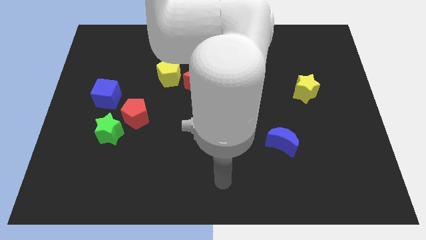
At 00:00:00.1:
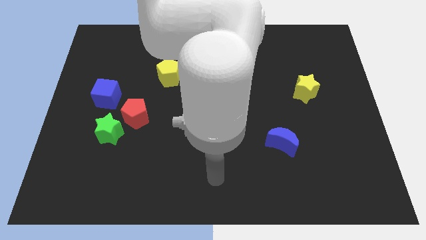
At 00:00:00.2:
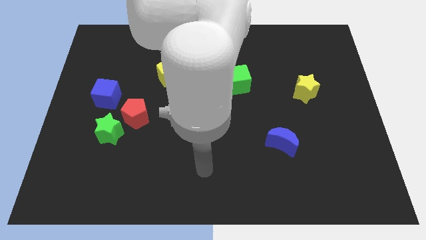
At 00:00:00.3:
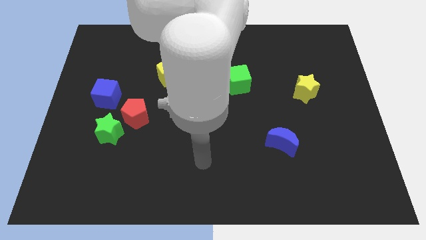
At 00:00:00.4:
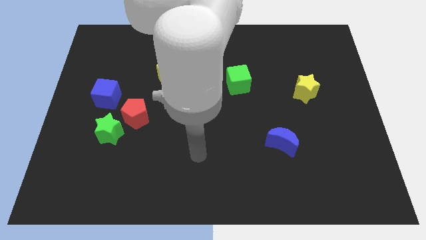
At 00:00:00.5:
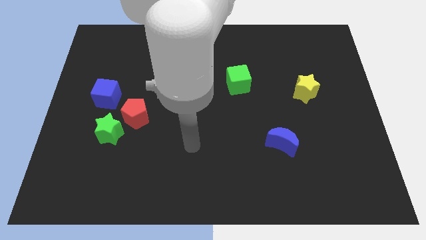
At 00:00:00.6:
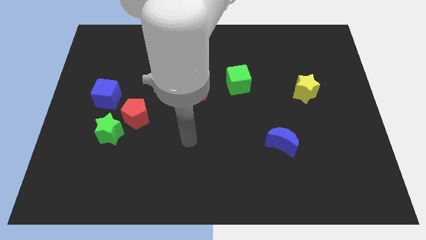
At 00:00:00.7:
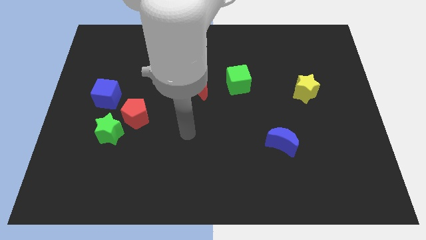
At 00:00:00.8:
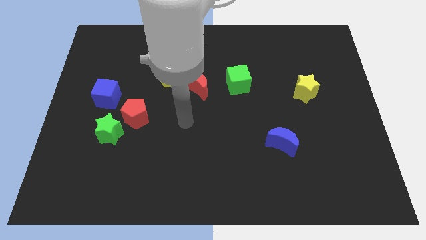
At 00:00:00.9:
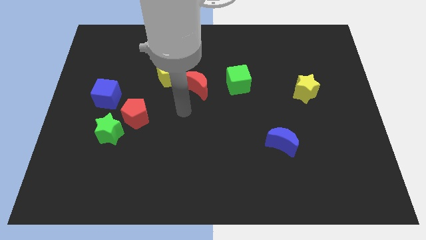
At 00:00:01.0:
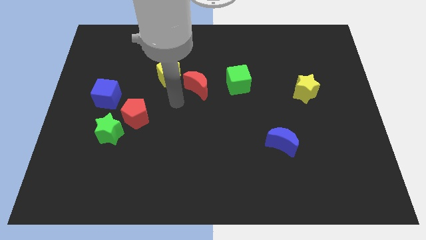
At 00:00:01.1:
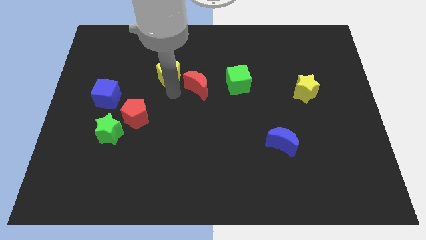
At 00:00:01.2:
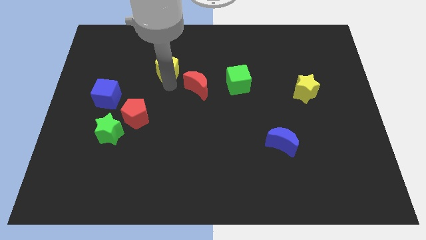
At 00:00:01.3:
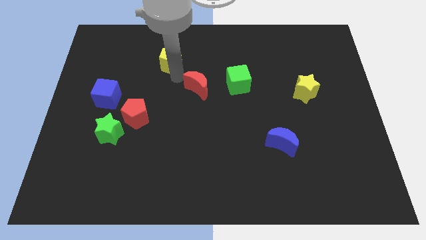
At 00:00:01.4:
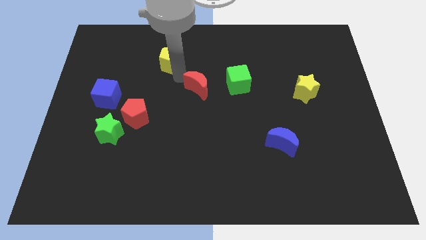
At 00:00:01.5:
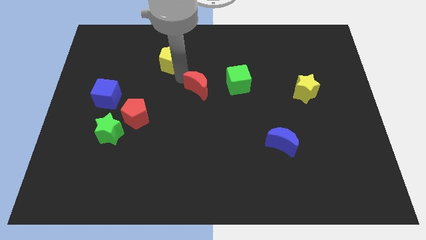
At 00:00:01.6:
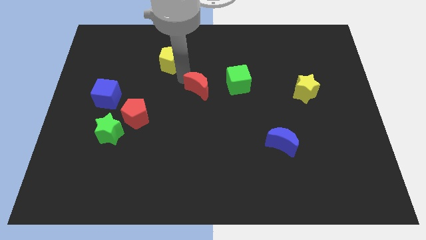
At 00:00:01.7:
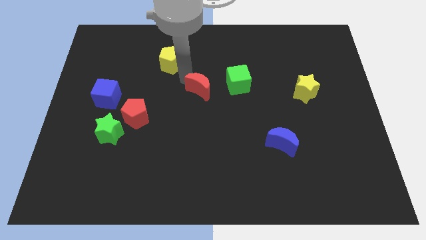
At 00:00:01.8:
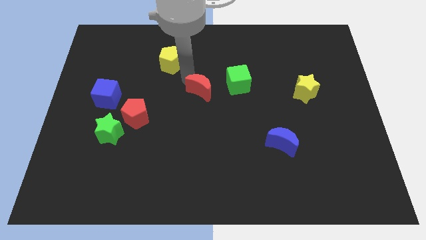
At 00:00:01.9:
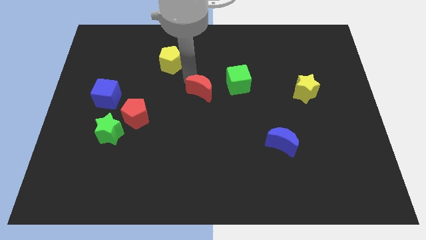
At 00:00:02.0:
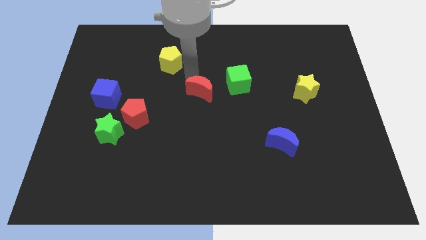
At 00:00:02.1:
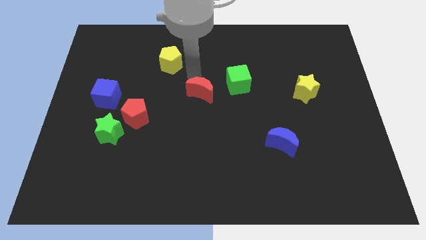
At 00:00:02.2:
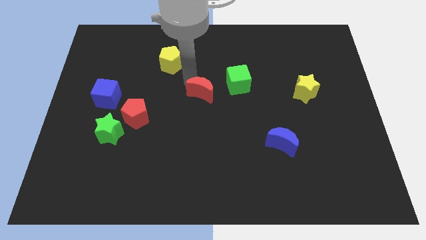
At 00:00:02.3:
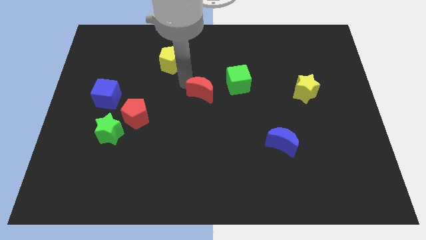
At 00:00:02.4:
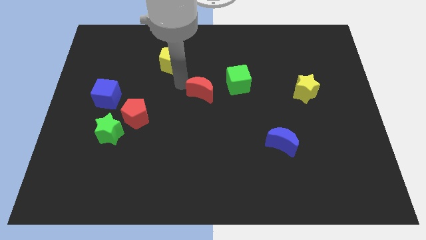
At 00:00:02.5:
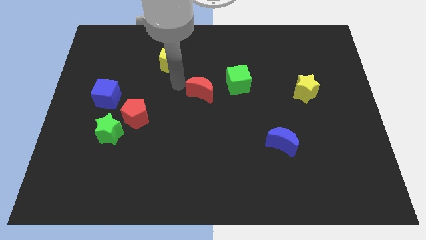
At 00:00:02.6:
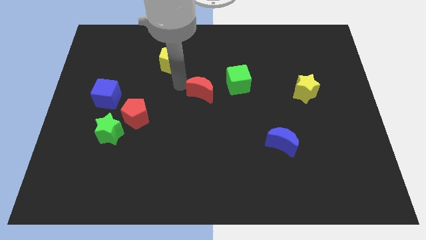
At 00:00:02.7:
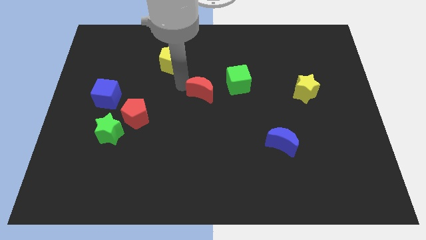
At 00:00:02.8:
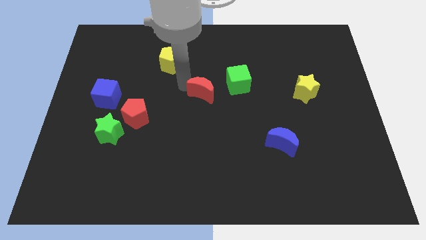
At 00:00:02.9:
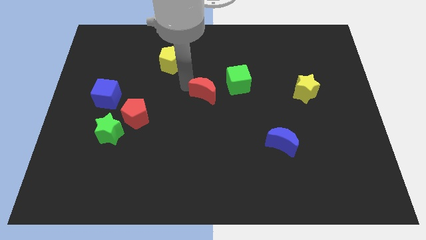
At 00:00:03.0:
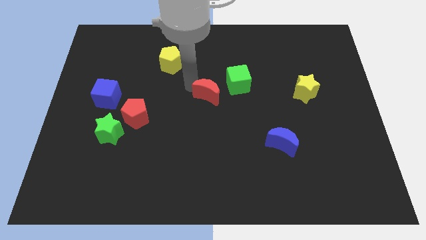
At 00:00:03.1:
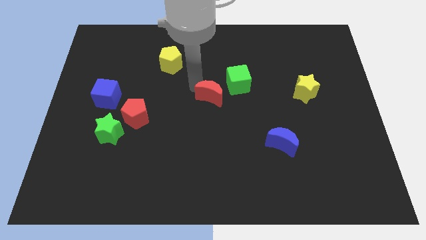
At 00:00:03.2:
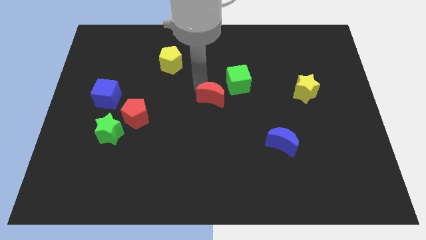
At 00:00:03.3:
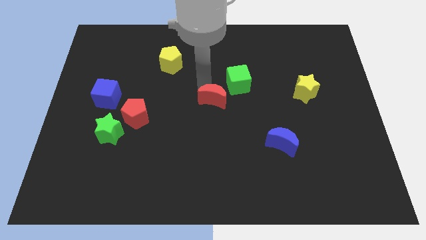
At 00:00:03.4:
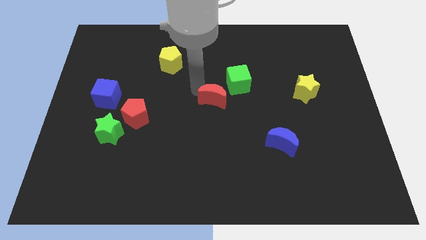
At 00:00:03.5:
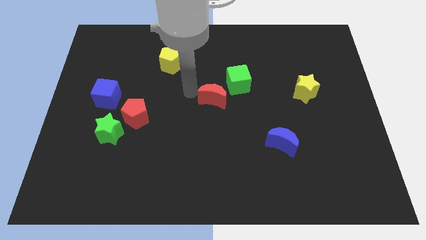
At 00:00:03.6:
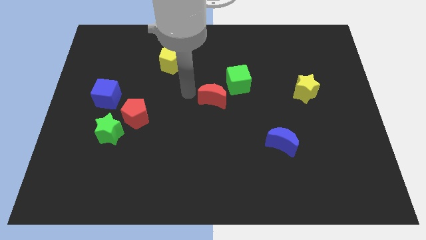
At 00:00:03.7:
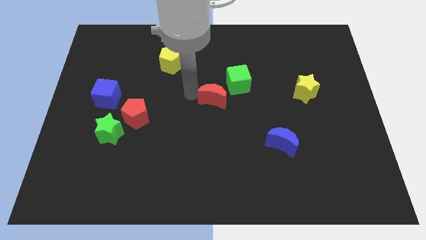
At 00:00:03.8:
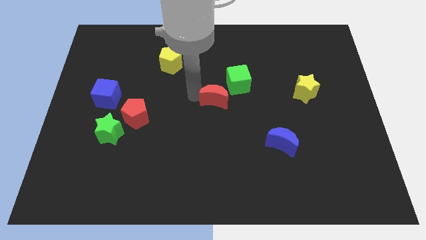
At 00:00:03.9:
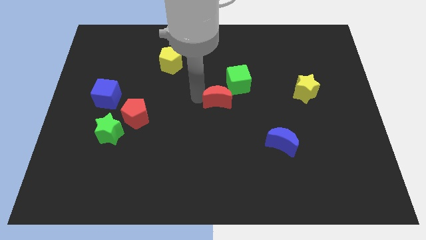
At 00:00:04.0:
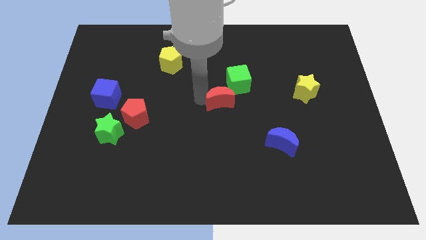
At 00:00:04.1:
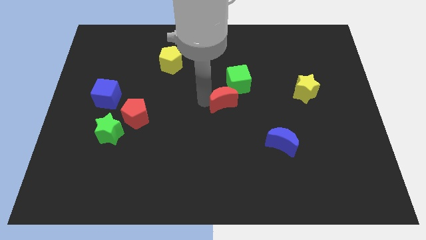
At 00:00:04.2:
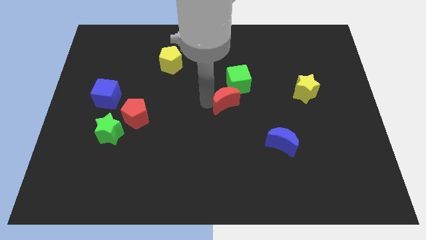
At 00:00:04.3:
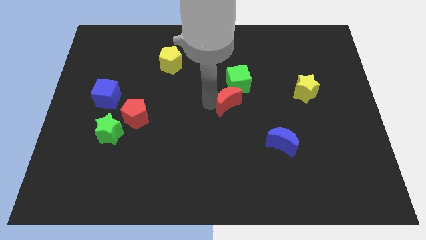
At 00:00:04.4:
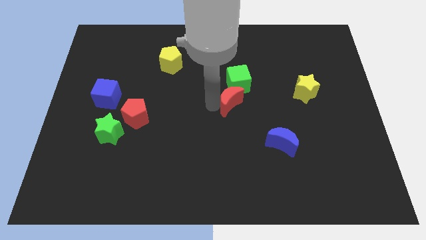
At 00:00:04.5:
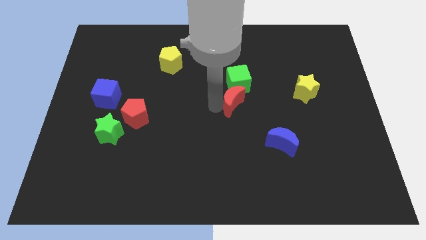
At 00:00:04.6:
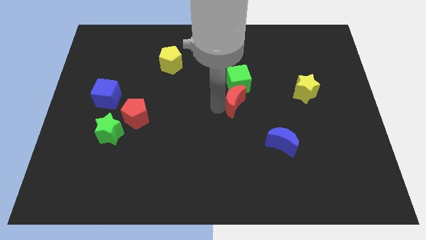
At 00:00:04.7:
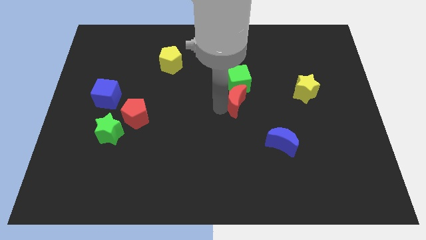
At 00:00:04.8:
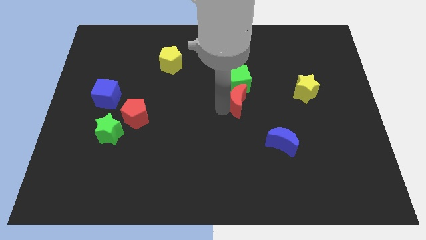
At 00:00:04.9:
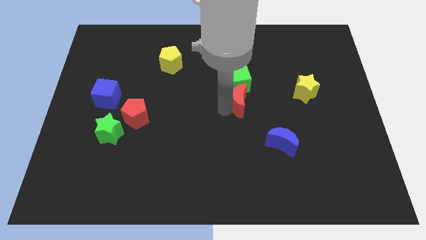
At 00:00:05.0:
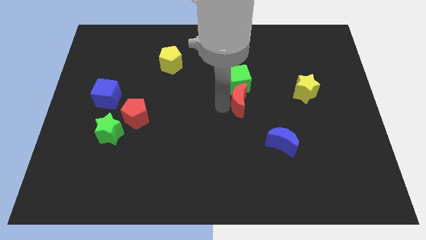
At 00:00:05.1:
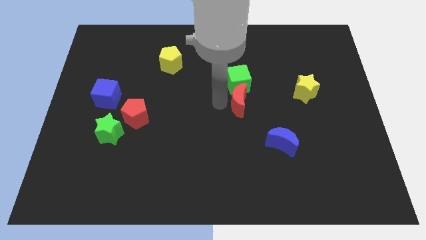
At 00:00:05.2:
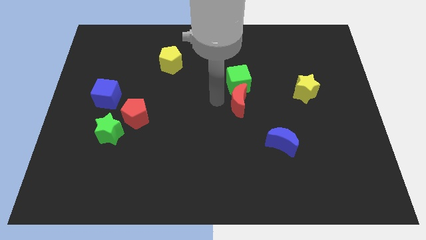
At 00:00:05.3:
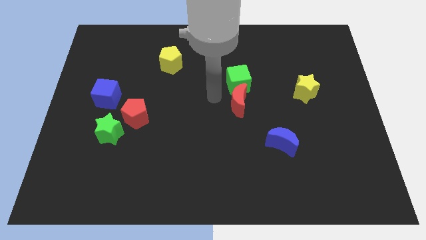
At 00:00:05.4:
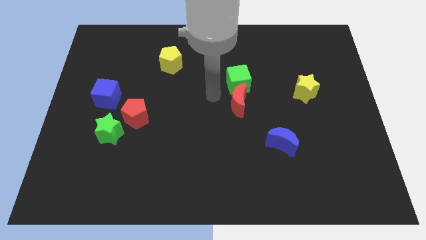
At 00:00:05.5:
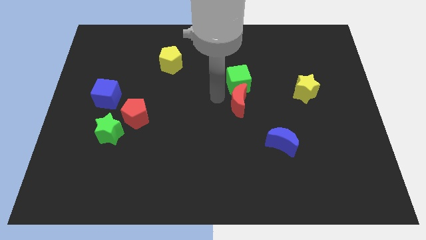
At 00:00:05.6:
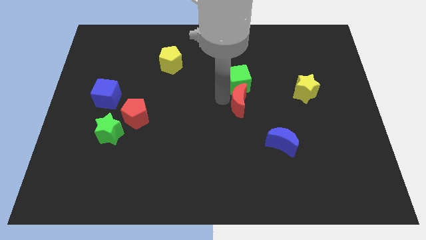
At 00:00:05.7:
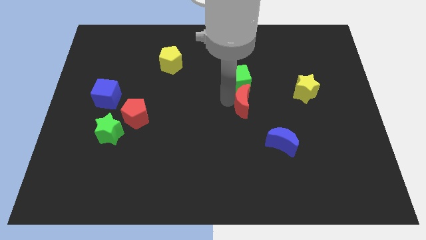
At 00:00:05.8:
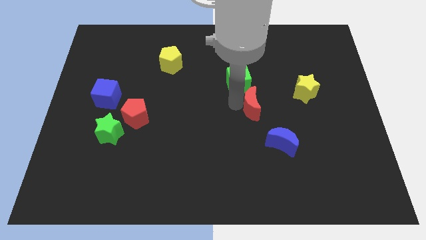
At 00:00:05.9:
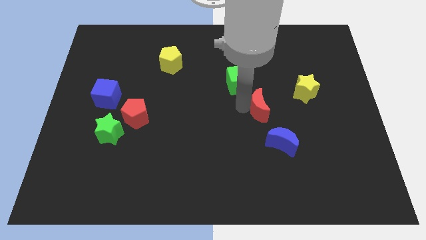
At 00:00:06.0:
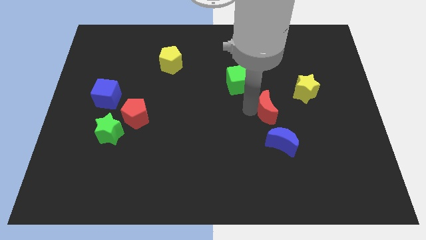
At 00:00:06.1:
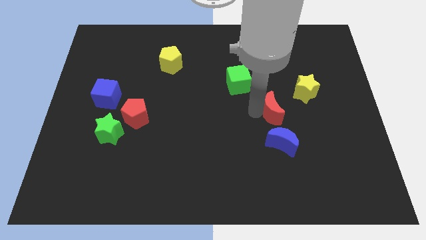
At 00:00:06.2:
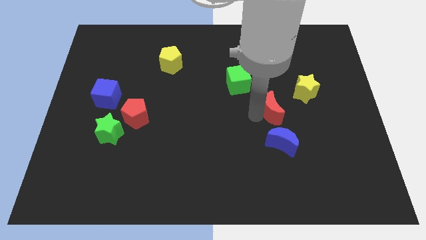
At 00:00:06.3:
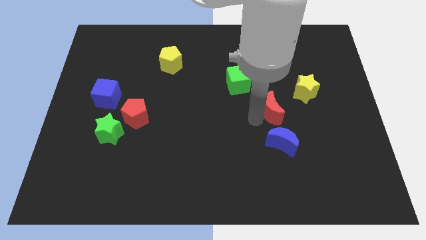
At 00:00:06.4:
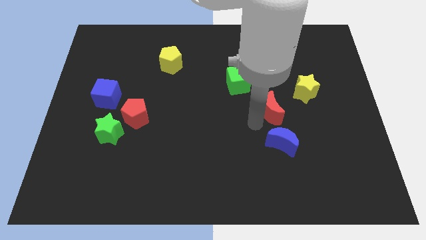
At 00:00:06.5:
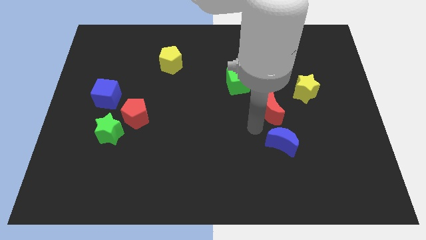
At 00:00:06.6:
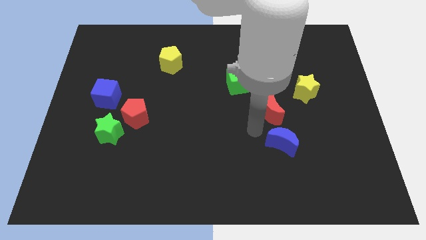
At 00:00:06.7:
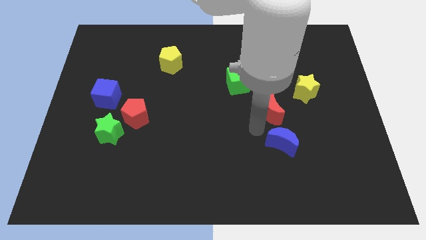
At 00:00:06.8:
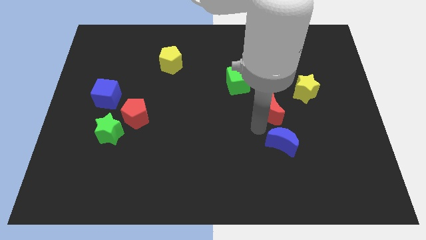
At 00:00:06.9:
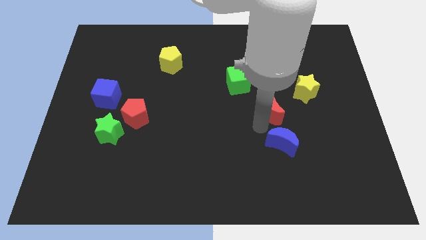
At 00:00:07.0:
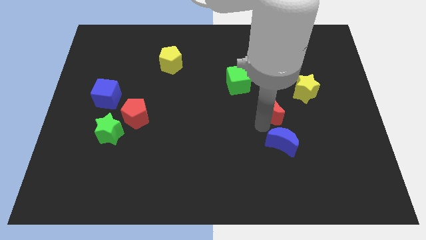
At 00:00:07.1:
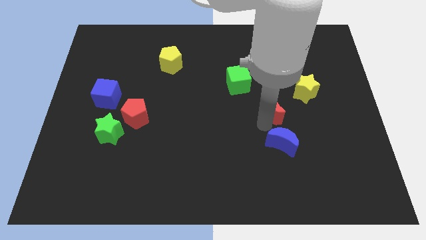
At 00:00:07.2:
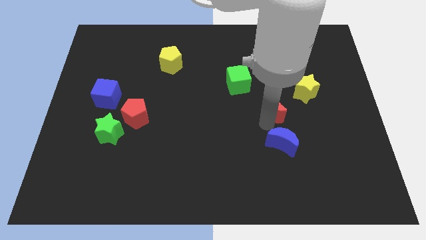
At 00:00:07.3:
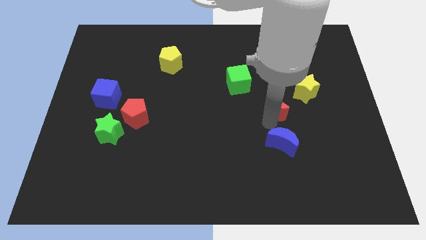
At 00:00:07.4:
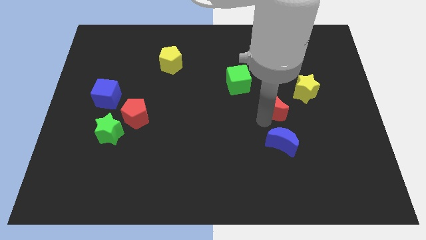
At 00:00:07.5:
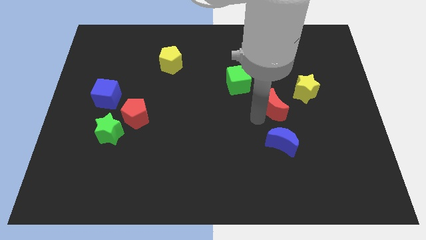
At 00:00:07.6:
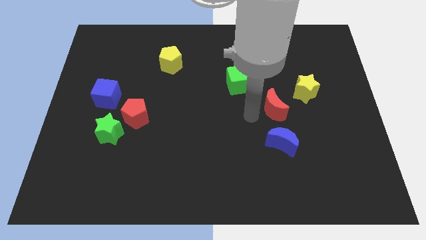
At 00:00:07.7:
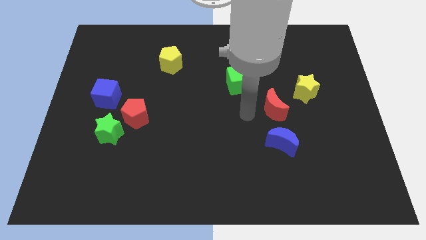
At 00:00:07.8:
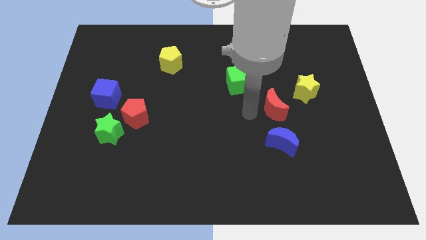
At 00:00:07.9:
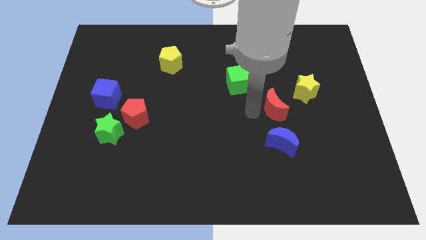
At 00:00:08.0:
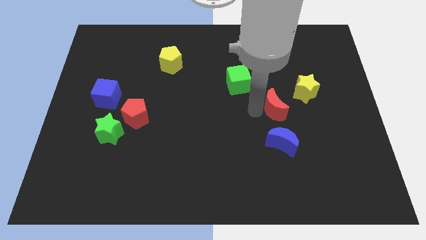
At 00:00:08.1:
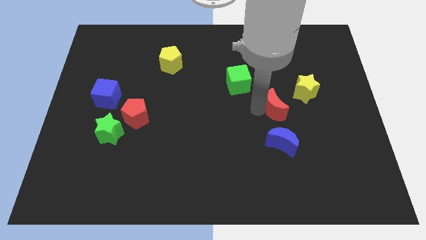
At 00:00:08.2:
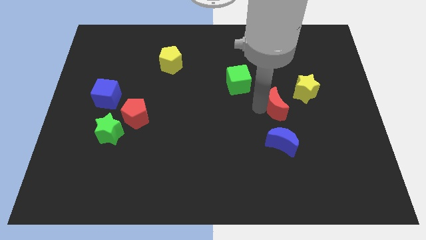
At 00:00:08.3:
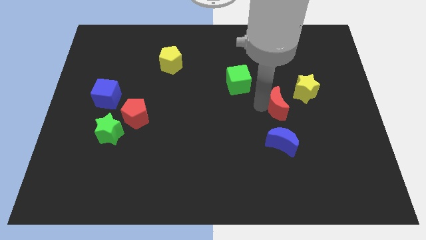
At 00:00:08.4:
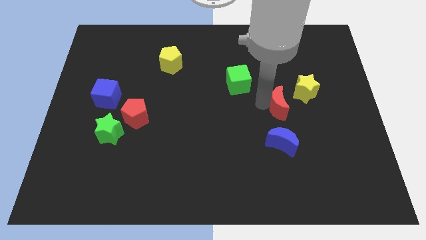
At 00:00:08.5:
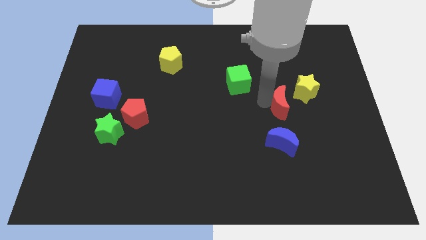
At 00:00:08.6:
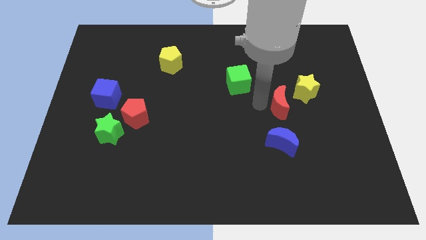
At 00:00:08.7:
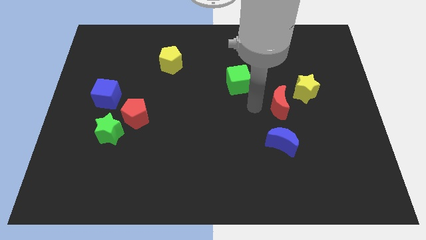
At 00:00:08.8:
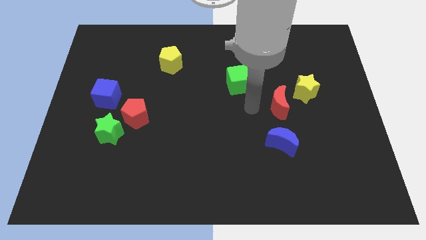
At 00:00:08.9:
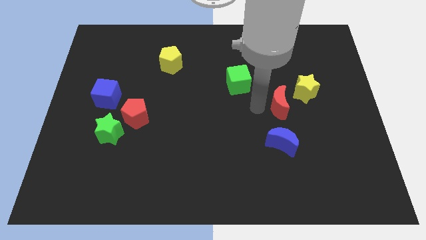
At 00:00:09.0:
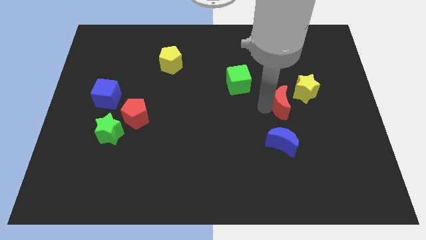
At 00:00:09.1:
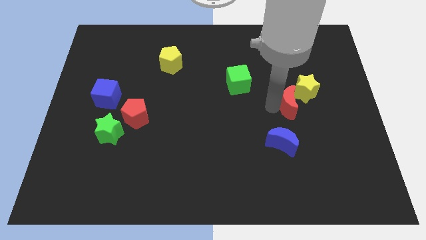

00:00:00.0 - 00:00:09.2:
push the red moon right
